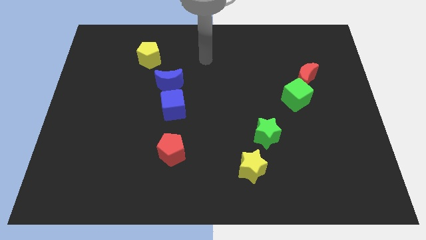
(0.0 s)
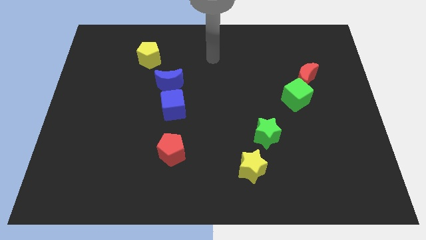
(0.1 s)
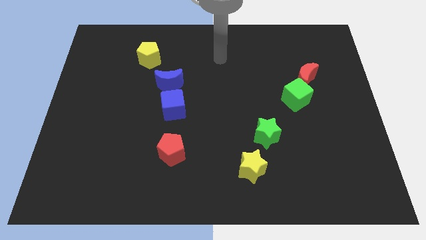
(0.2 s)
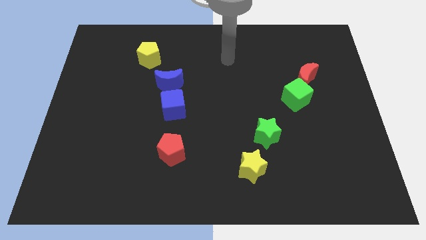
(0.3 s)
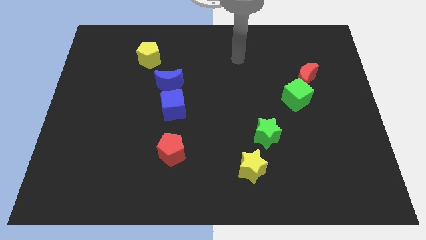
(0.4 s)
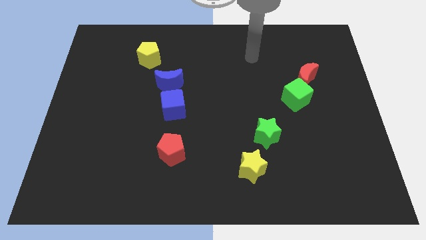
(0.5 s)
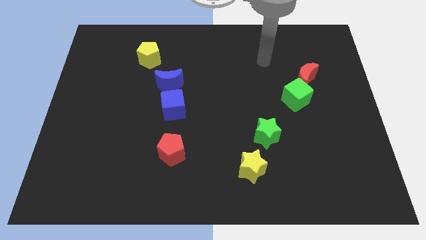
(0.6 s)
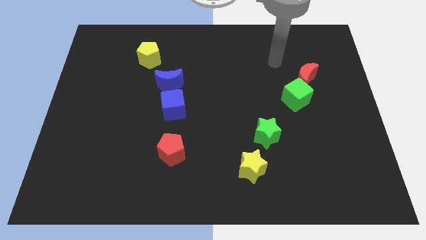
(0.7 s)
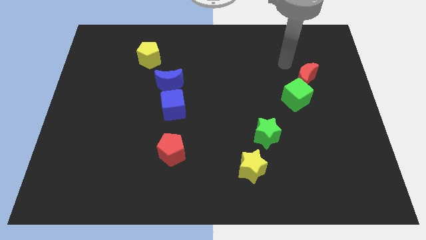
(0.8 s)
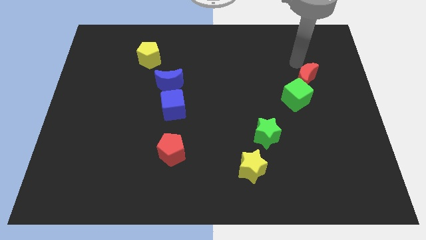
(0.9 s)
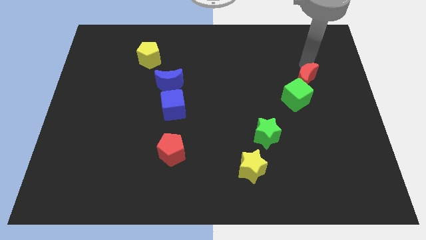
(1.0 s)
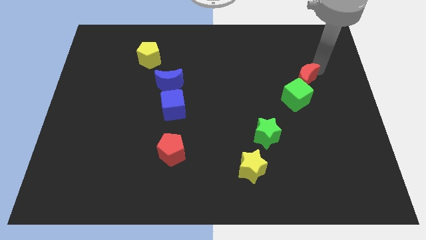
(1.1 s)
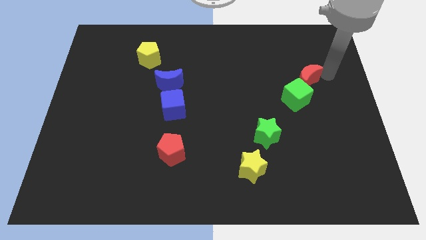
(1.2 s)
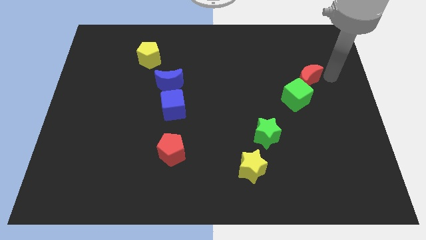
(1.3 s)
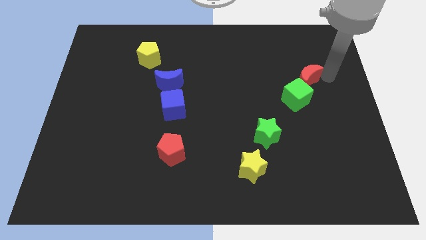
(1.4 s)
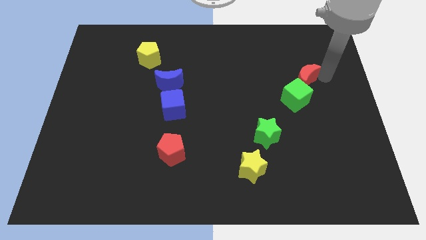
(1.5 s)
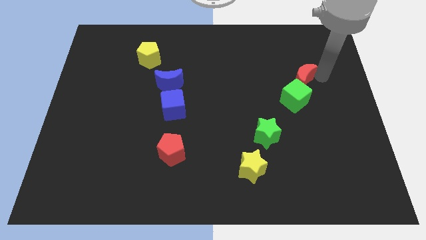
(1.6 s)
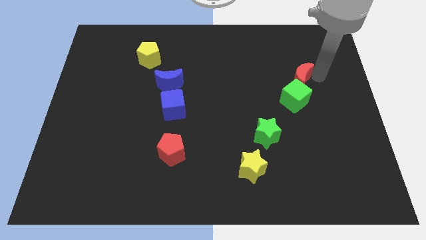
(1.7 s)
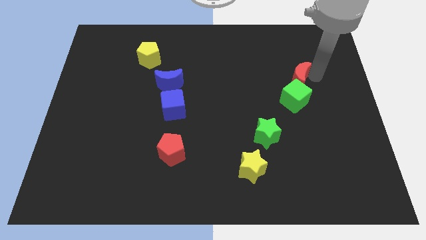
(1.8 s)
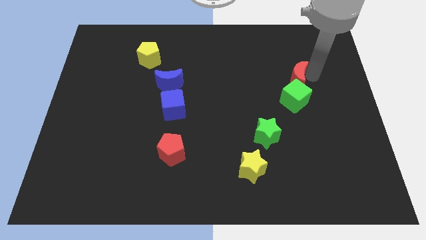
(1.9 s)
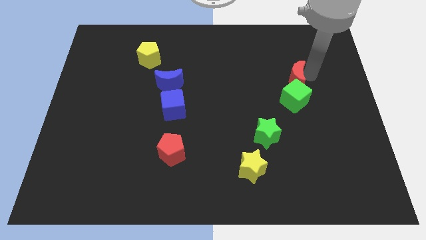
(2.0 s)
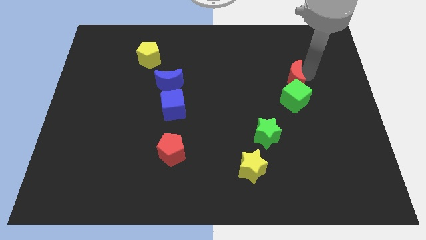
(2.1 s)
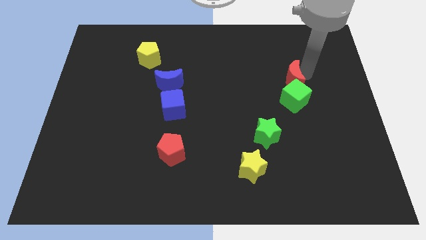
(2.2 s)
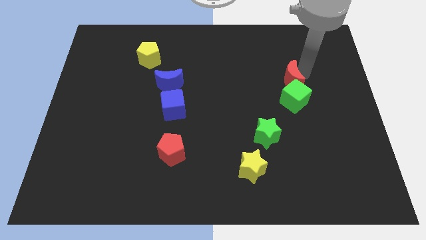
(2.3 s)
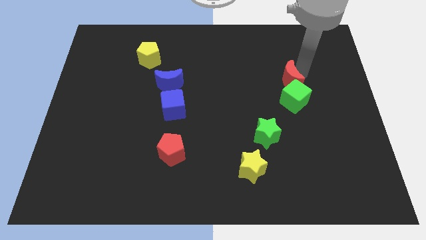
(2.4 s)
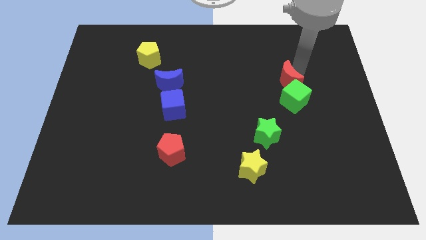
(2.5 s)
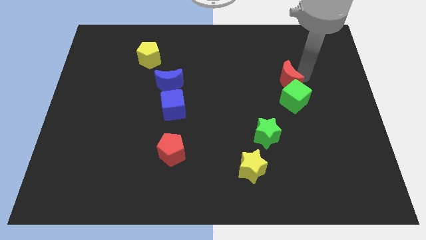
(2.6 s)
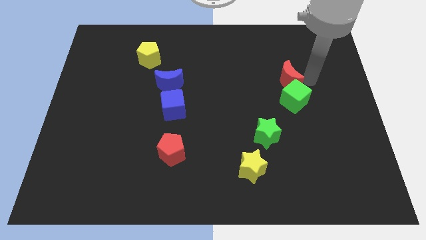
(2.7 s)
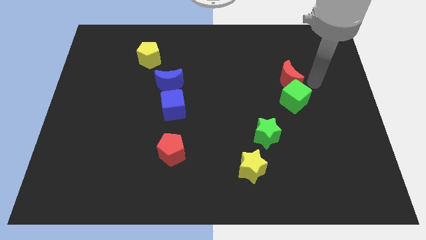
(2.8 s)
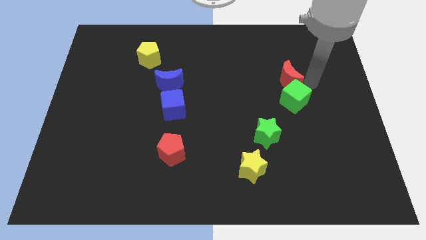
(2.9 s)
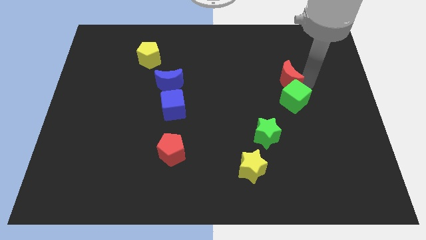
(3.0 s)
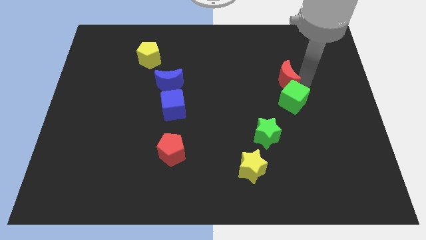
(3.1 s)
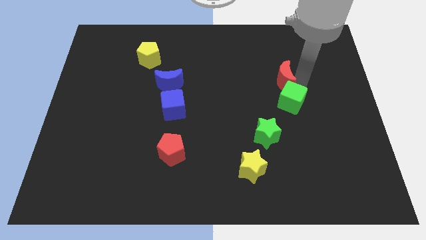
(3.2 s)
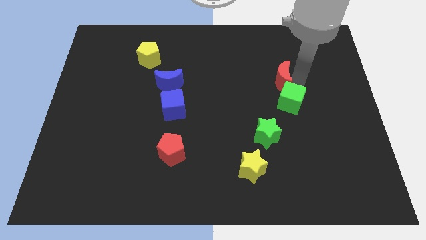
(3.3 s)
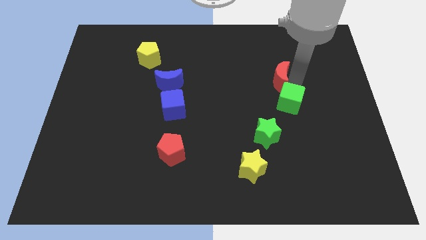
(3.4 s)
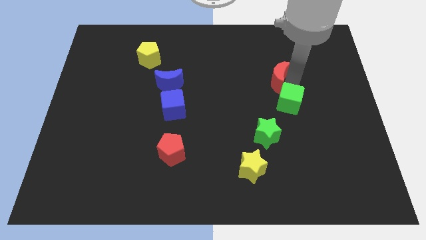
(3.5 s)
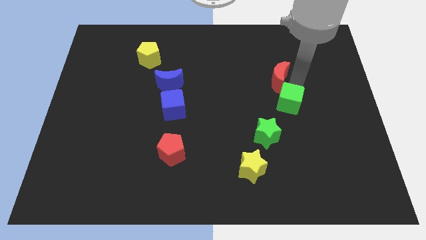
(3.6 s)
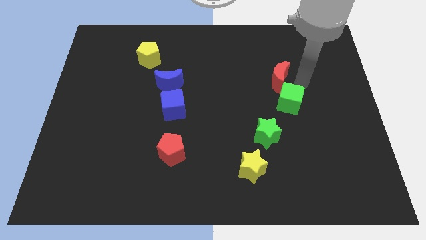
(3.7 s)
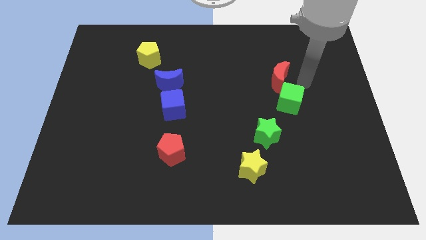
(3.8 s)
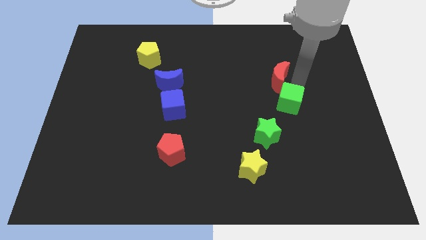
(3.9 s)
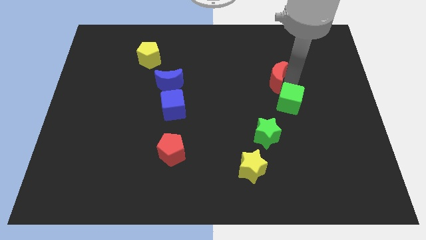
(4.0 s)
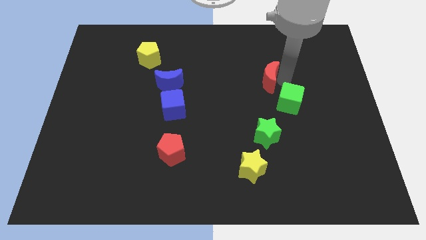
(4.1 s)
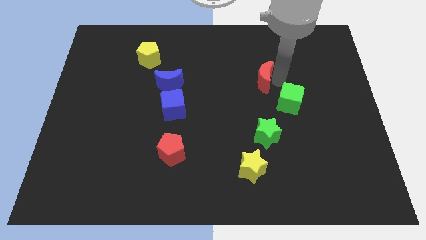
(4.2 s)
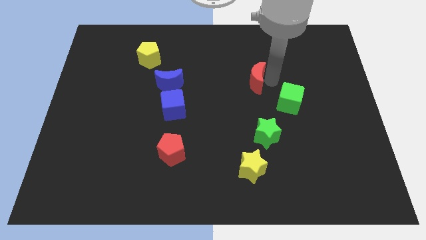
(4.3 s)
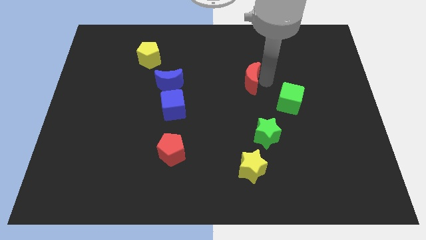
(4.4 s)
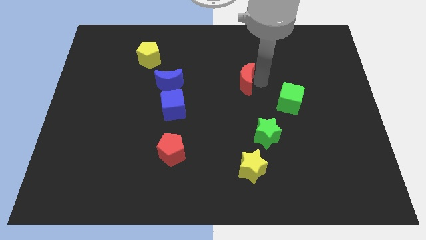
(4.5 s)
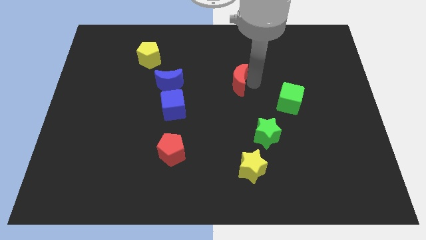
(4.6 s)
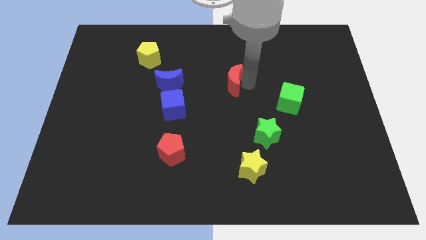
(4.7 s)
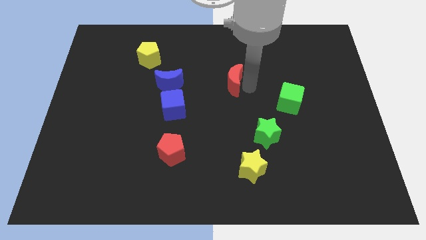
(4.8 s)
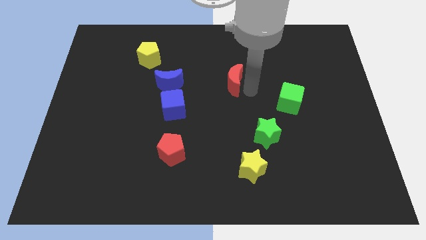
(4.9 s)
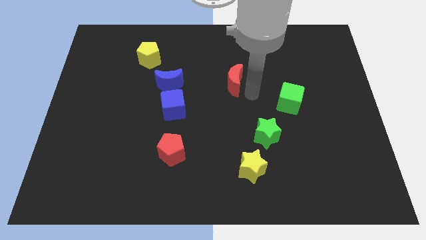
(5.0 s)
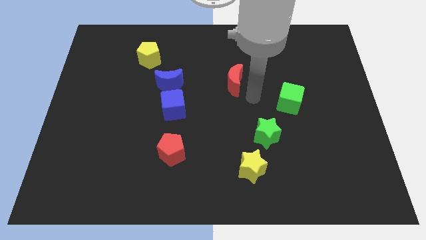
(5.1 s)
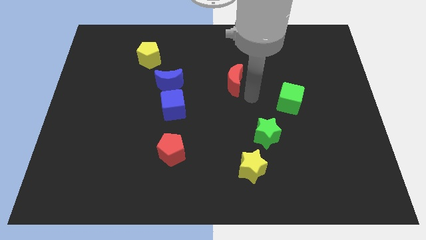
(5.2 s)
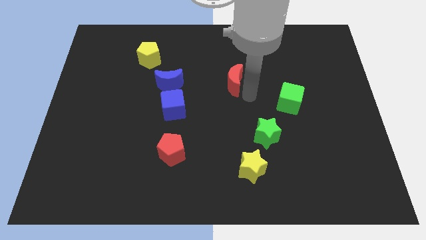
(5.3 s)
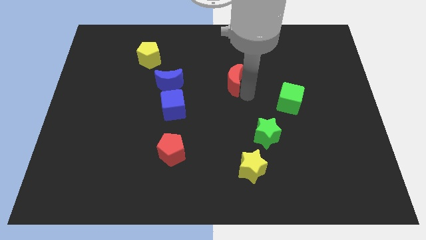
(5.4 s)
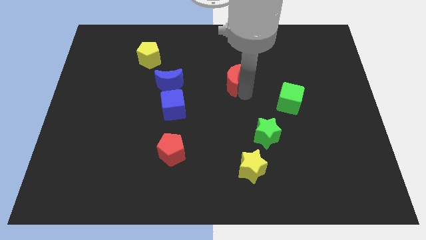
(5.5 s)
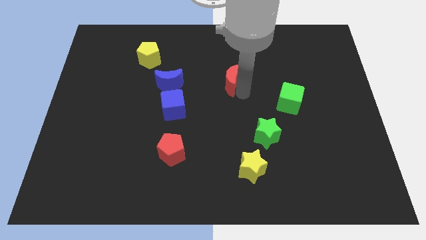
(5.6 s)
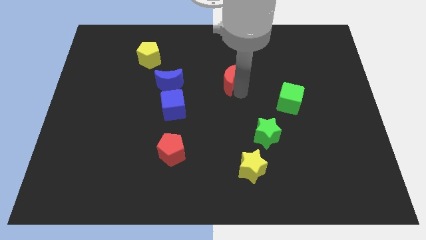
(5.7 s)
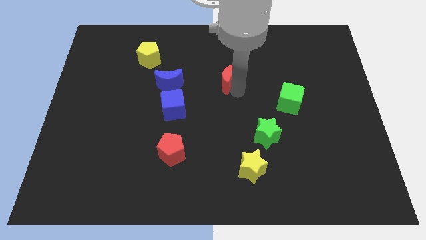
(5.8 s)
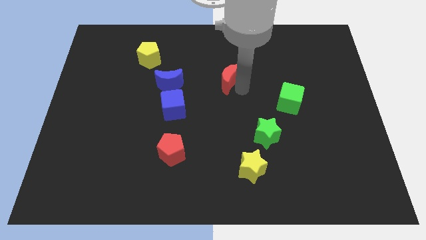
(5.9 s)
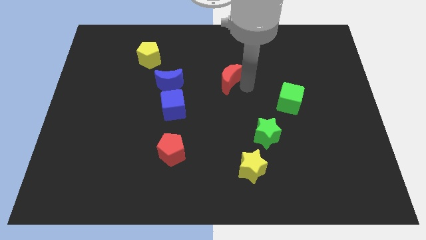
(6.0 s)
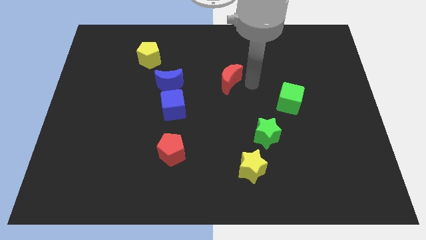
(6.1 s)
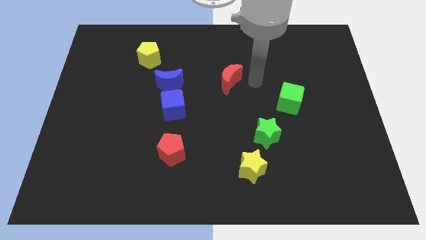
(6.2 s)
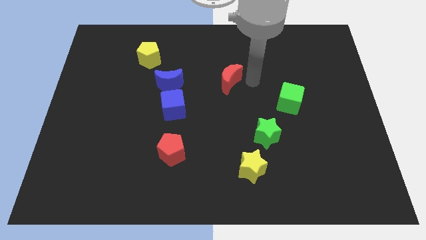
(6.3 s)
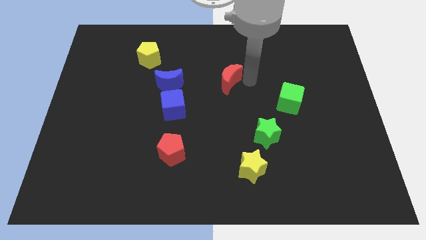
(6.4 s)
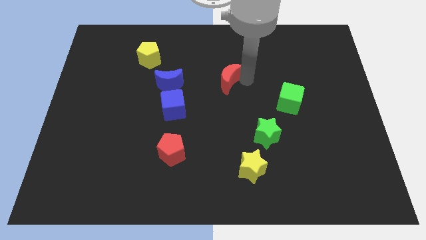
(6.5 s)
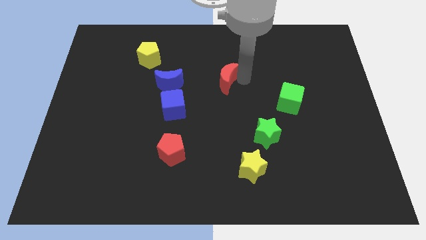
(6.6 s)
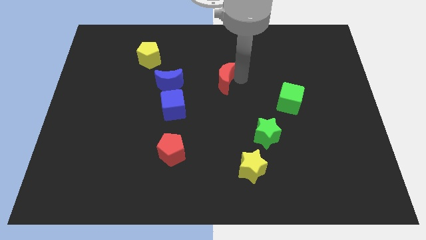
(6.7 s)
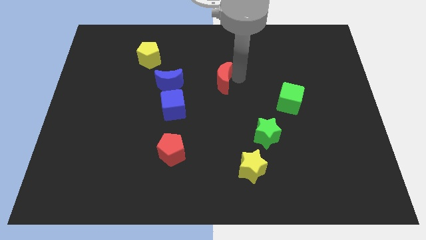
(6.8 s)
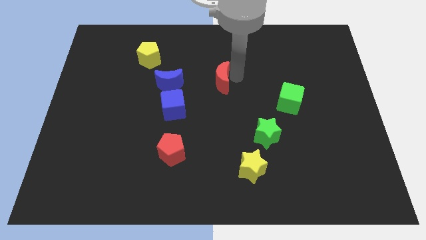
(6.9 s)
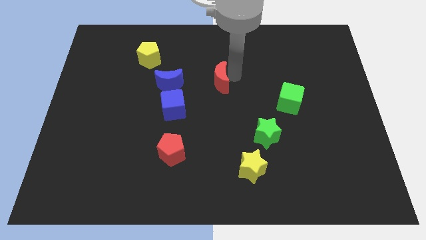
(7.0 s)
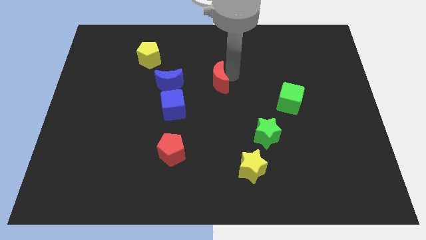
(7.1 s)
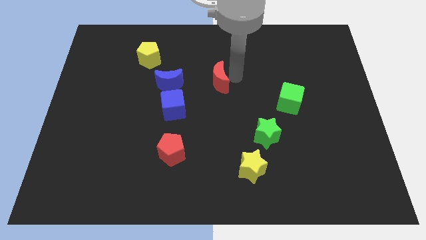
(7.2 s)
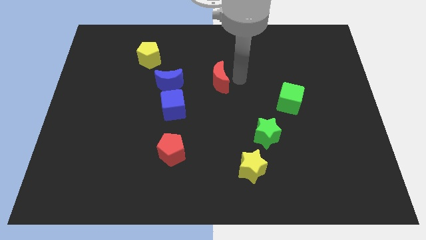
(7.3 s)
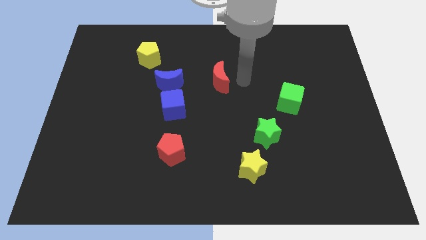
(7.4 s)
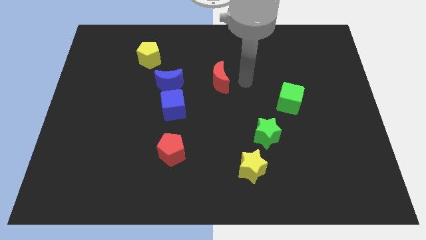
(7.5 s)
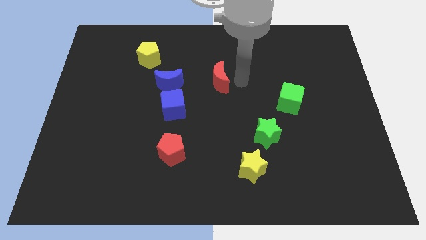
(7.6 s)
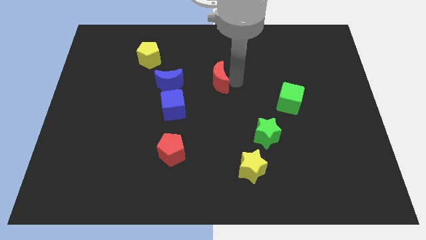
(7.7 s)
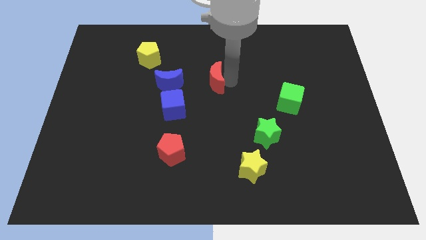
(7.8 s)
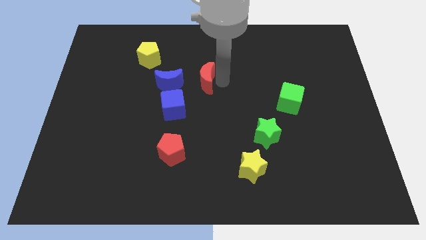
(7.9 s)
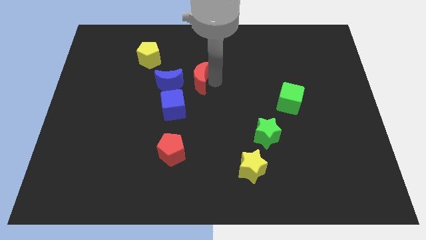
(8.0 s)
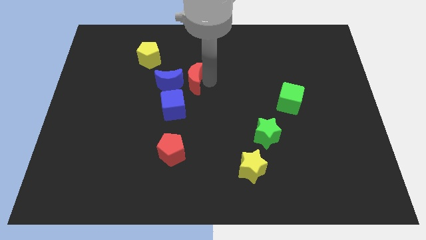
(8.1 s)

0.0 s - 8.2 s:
move the red moon close to the blue moon

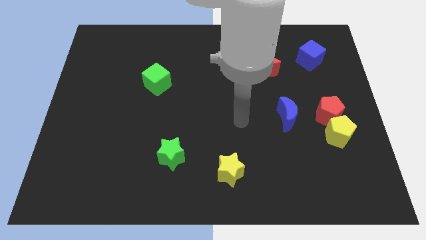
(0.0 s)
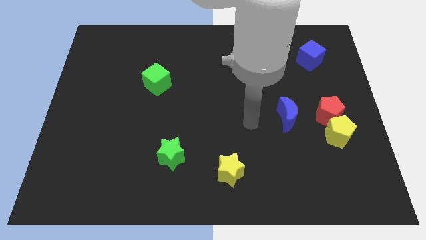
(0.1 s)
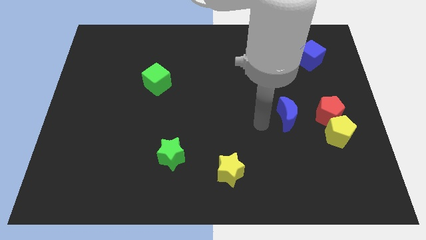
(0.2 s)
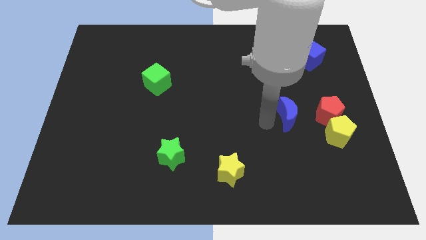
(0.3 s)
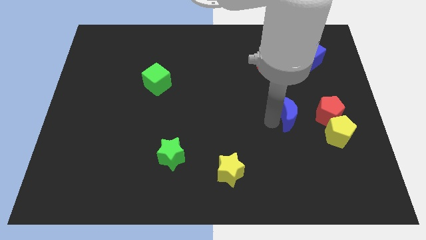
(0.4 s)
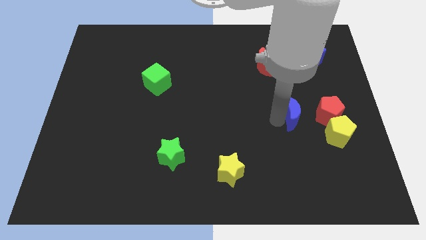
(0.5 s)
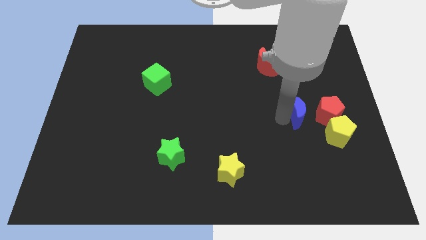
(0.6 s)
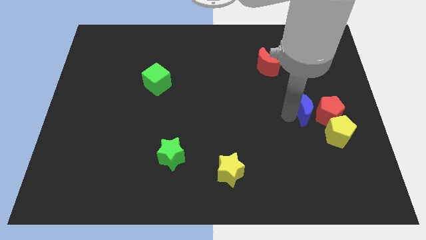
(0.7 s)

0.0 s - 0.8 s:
put the blue moon to the red pentagon
